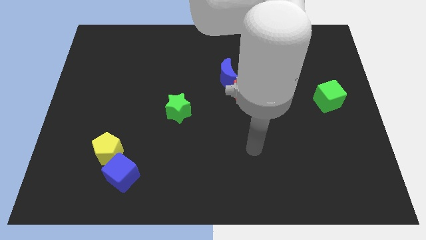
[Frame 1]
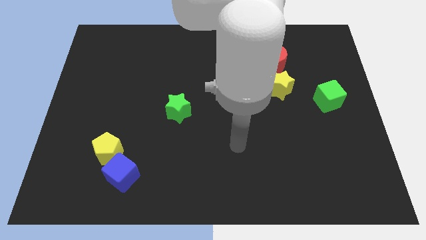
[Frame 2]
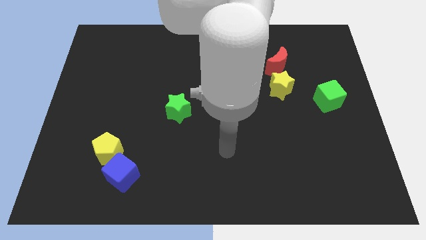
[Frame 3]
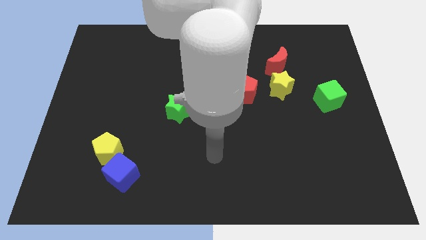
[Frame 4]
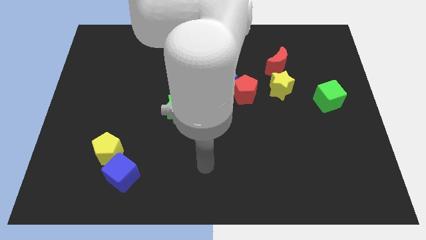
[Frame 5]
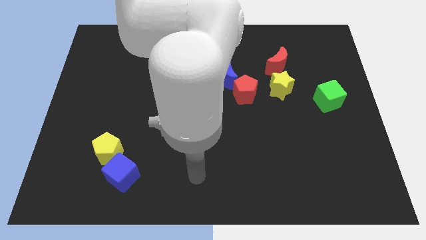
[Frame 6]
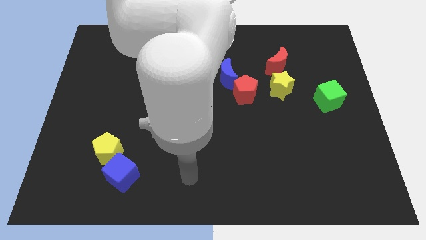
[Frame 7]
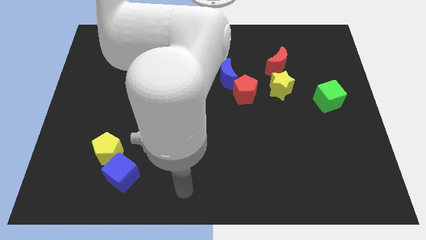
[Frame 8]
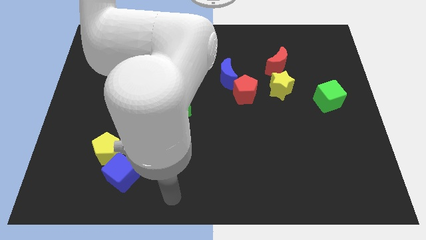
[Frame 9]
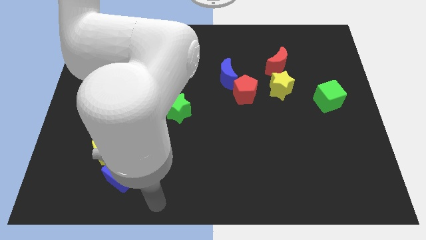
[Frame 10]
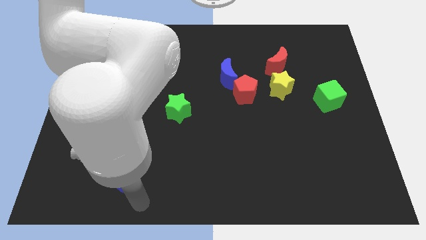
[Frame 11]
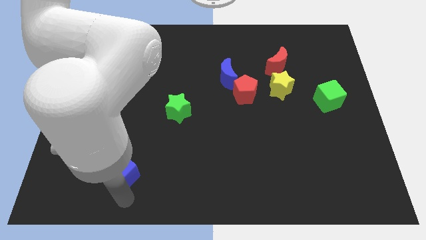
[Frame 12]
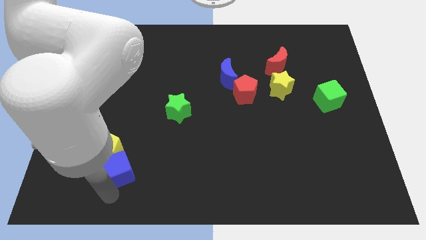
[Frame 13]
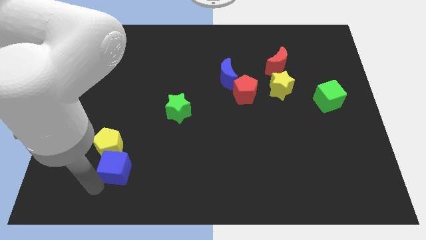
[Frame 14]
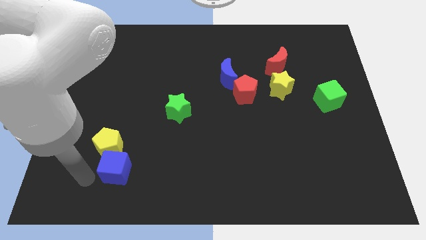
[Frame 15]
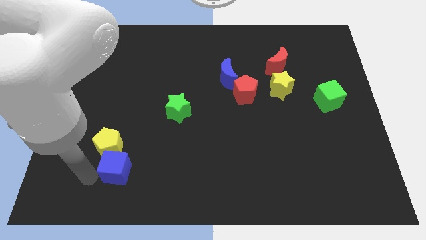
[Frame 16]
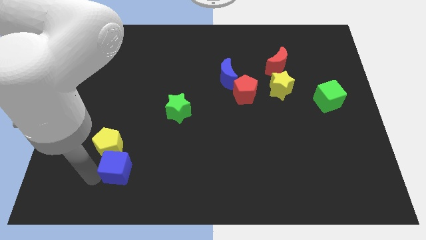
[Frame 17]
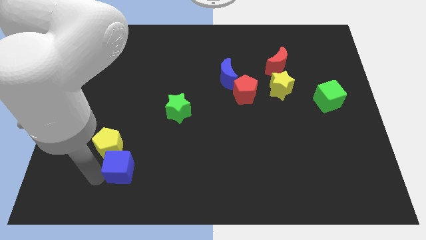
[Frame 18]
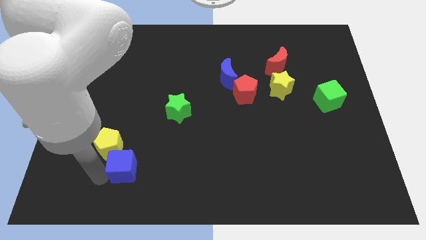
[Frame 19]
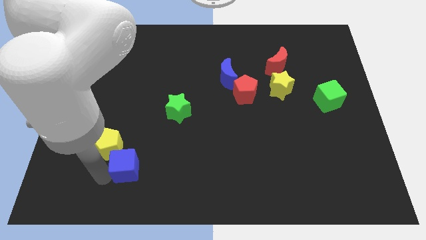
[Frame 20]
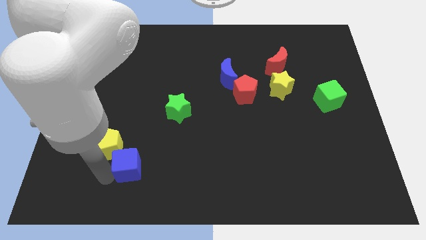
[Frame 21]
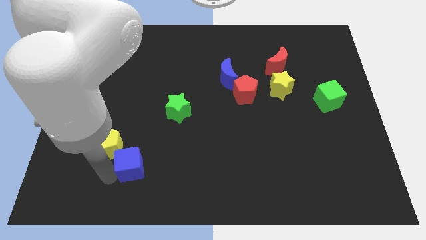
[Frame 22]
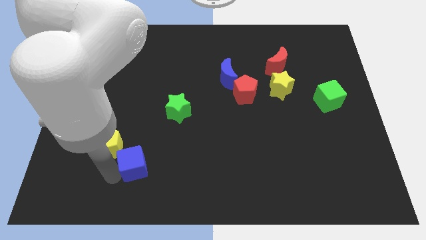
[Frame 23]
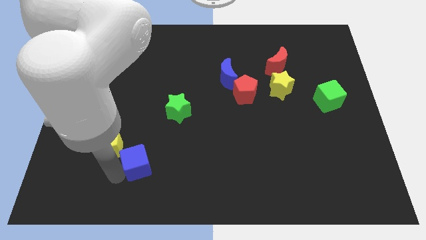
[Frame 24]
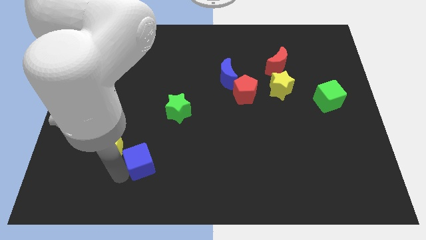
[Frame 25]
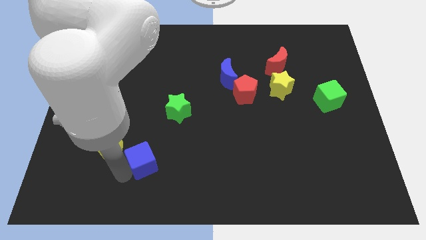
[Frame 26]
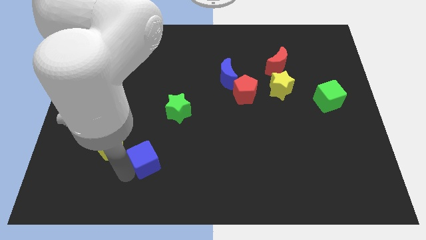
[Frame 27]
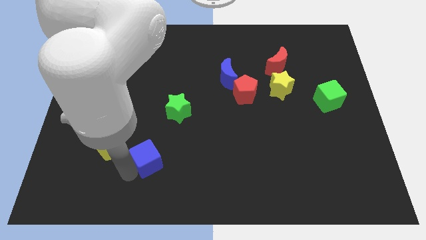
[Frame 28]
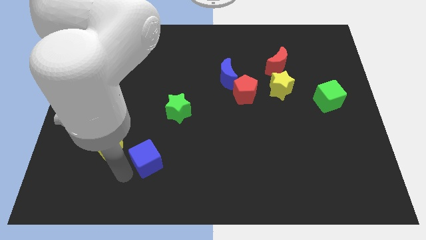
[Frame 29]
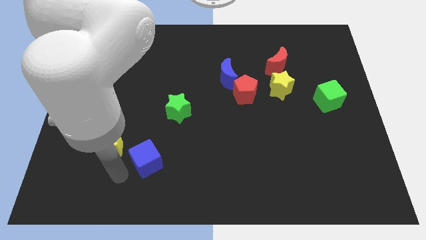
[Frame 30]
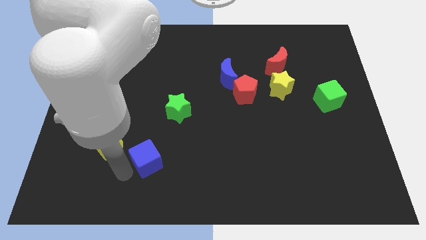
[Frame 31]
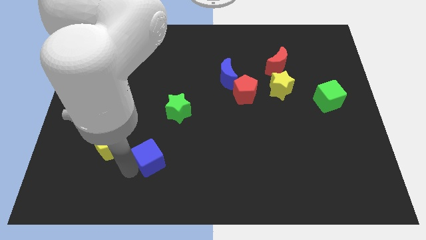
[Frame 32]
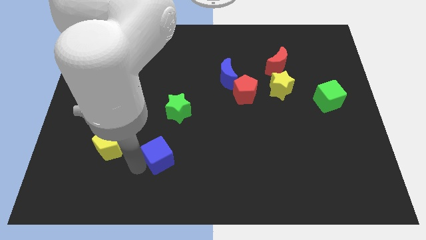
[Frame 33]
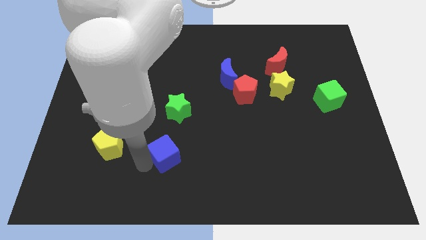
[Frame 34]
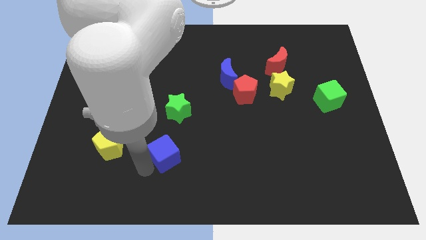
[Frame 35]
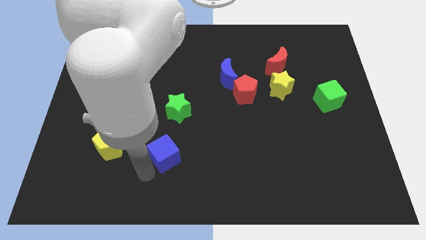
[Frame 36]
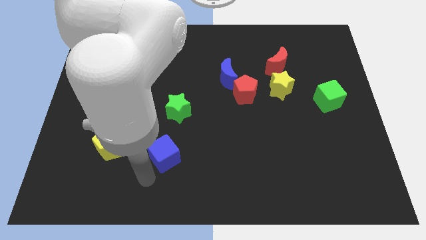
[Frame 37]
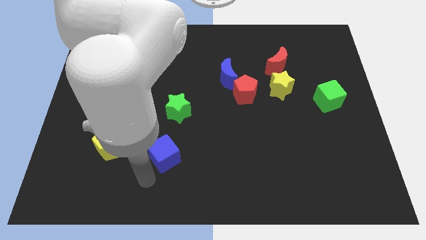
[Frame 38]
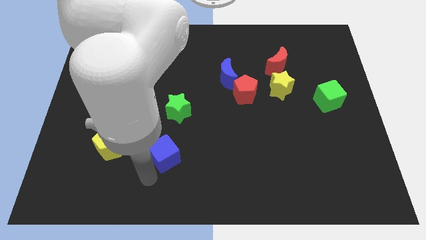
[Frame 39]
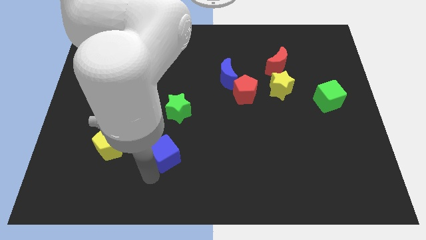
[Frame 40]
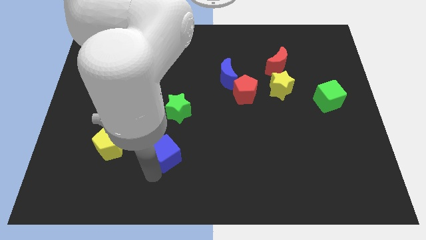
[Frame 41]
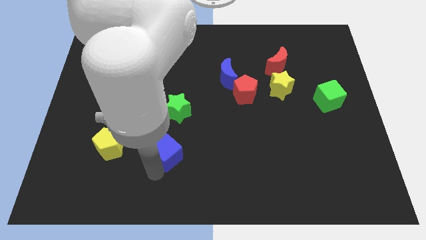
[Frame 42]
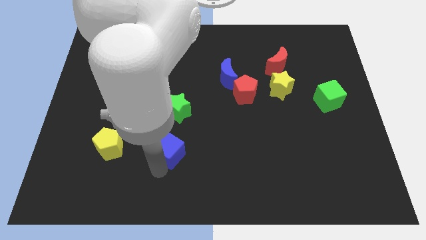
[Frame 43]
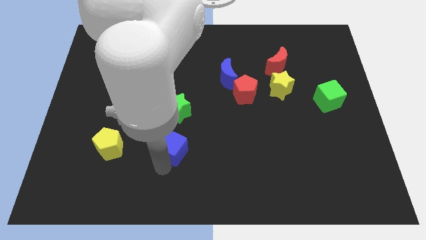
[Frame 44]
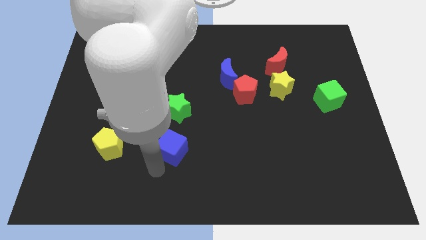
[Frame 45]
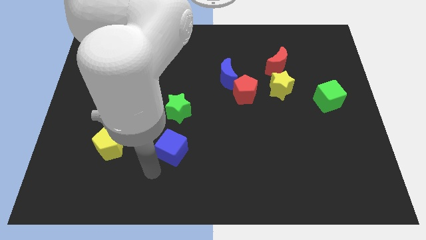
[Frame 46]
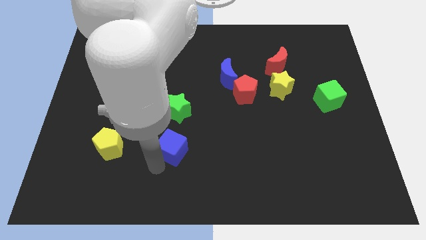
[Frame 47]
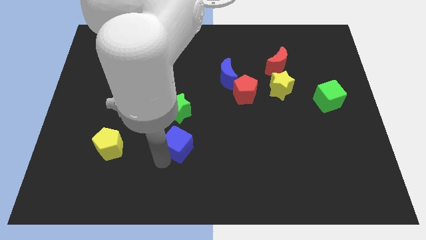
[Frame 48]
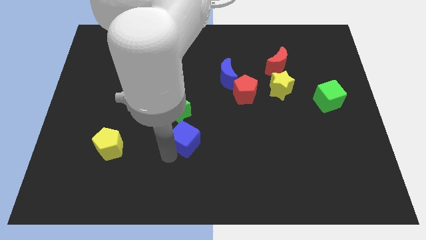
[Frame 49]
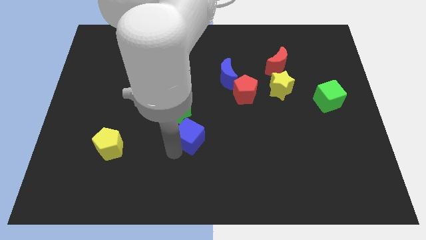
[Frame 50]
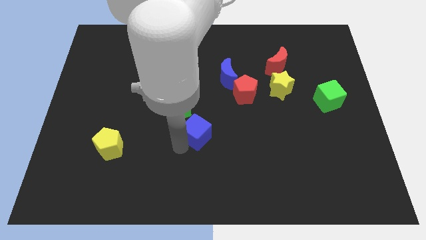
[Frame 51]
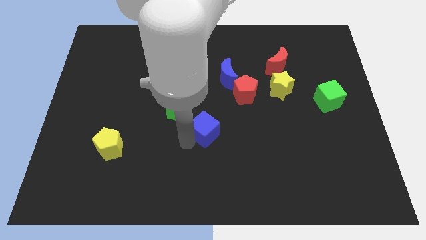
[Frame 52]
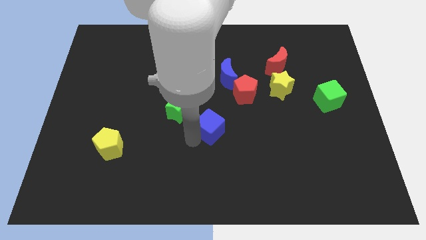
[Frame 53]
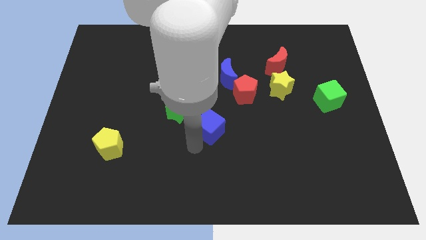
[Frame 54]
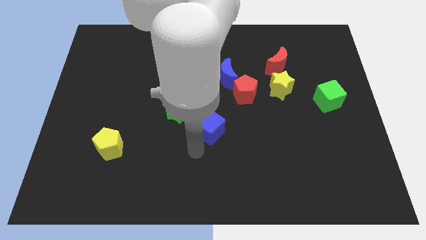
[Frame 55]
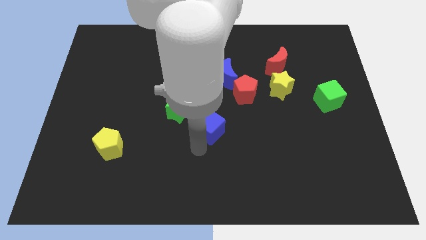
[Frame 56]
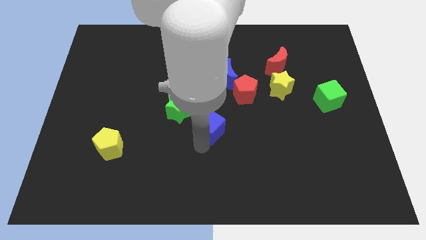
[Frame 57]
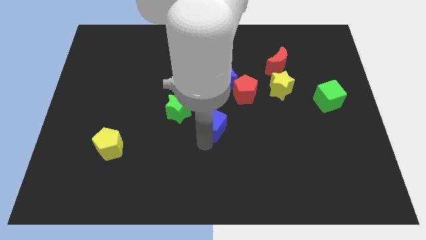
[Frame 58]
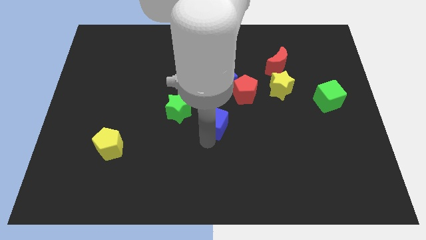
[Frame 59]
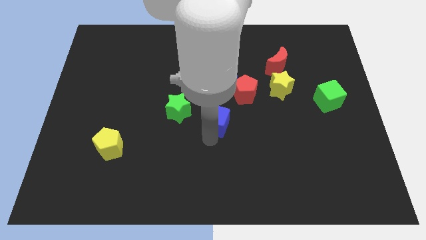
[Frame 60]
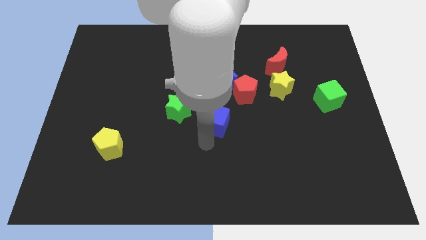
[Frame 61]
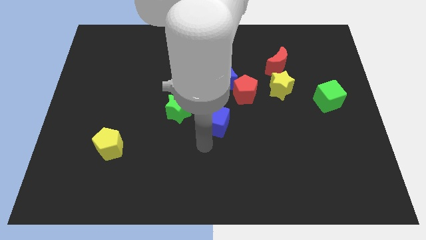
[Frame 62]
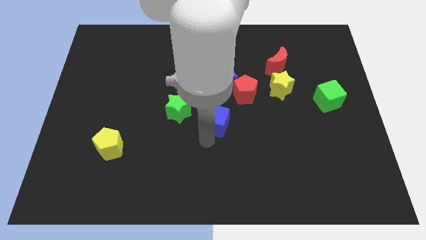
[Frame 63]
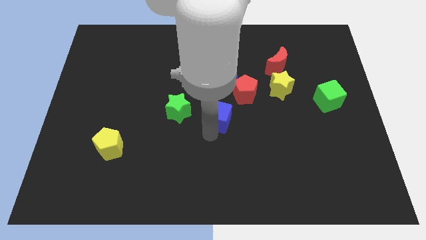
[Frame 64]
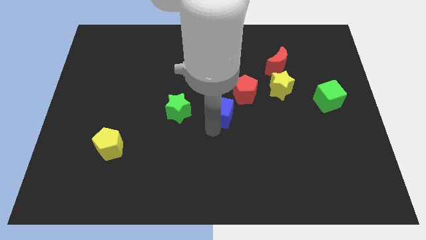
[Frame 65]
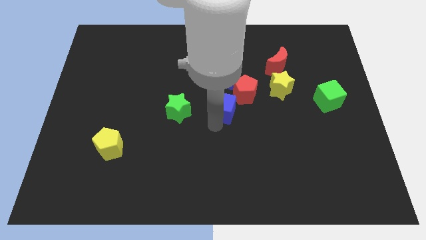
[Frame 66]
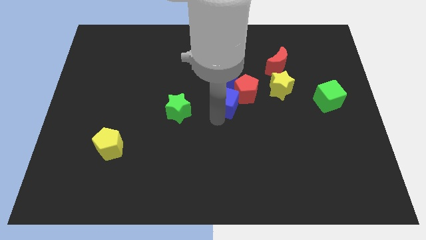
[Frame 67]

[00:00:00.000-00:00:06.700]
push the blue cube next to the red pentagon

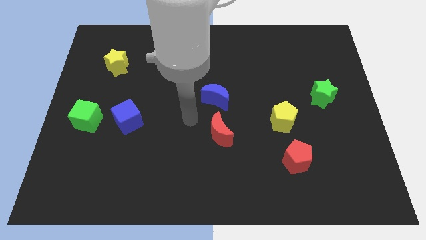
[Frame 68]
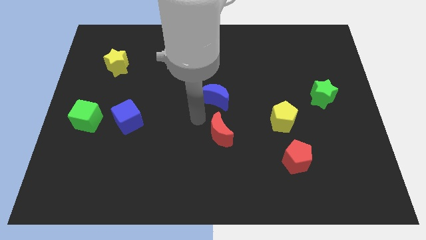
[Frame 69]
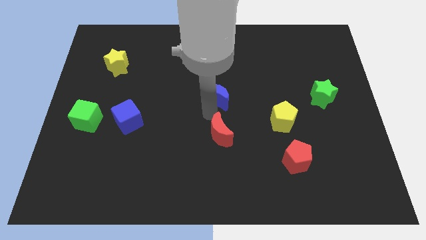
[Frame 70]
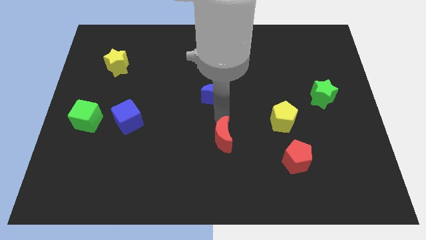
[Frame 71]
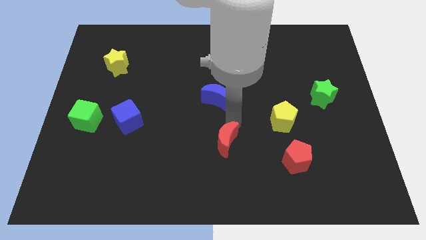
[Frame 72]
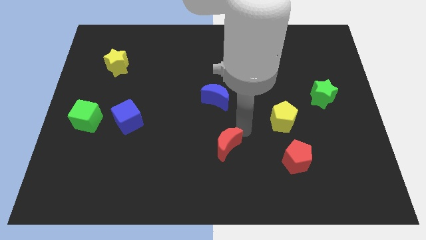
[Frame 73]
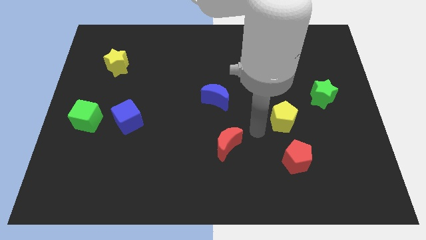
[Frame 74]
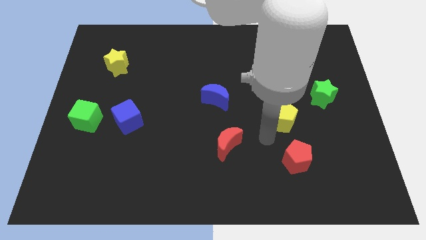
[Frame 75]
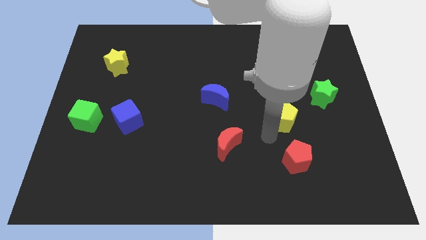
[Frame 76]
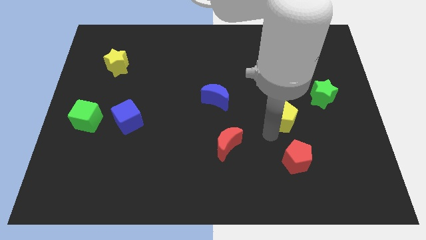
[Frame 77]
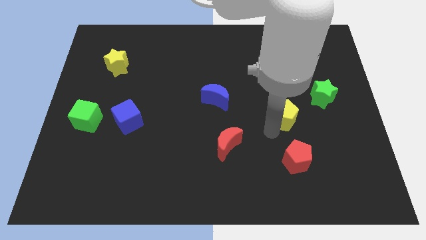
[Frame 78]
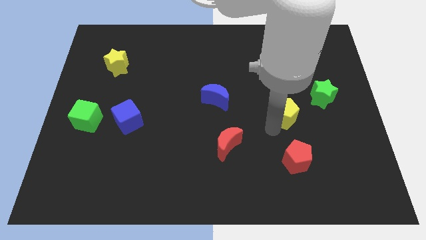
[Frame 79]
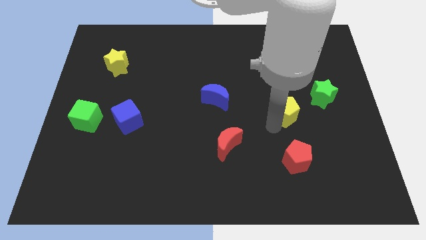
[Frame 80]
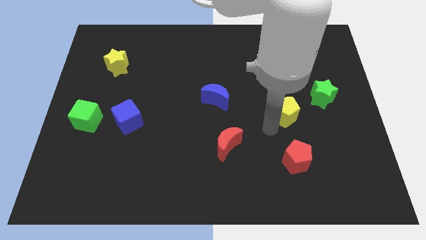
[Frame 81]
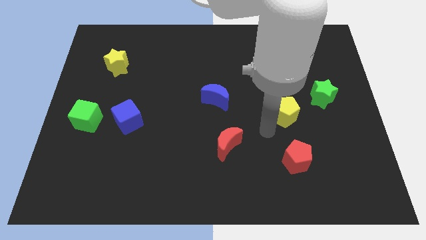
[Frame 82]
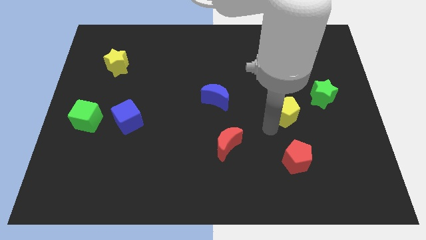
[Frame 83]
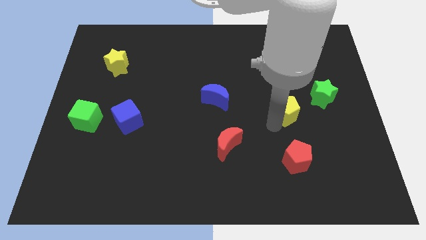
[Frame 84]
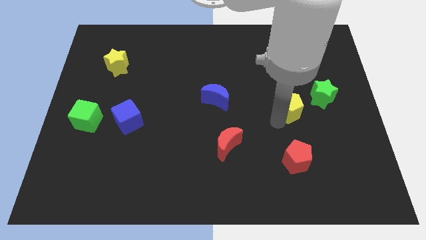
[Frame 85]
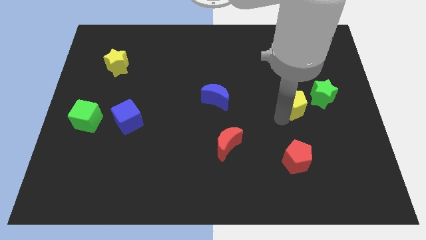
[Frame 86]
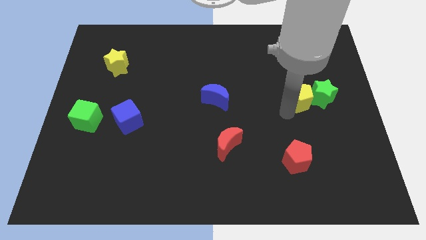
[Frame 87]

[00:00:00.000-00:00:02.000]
push the yellow pentagon towards the green star
